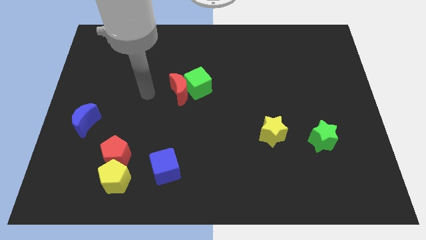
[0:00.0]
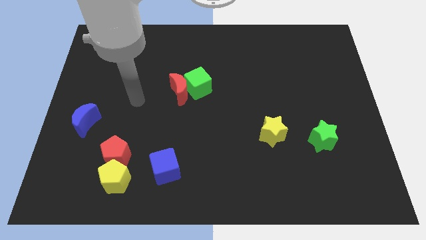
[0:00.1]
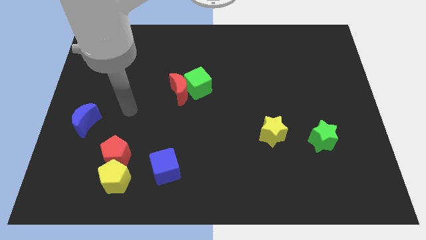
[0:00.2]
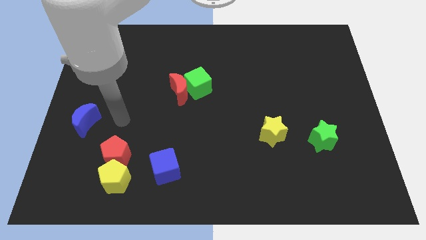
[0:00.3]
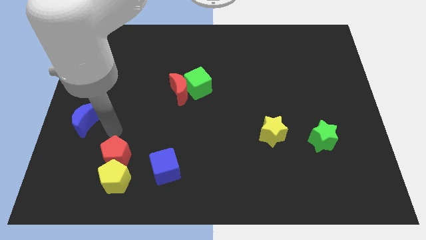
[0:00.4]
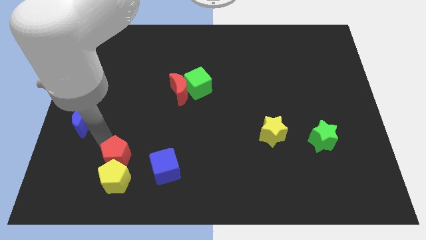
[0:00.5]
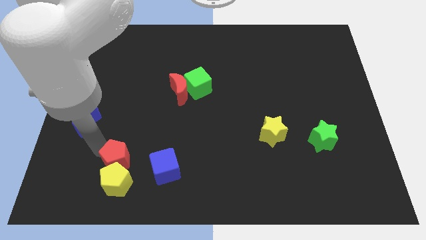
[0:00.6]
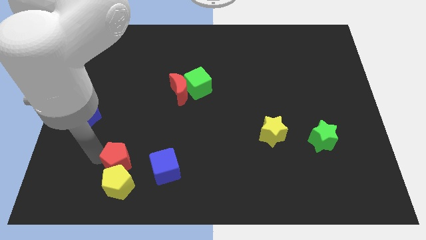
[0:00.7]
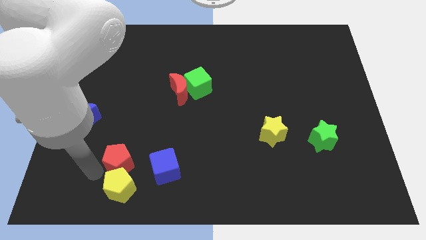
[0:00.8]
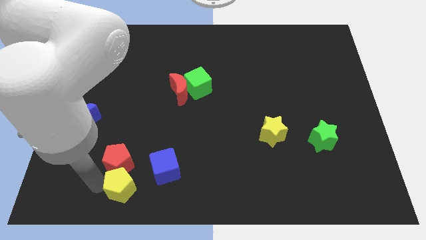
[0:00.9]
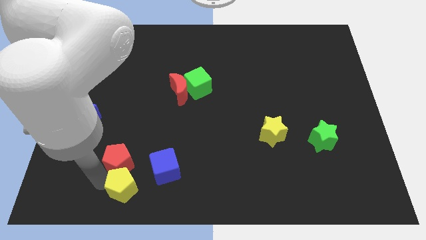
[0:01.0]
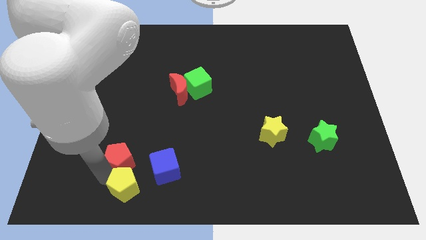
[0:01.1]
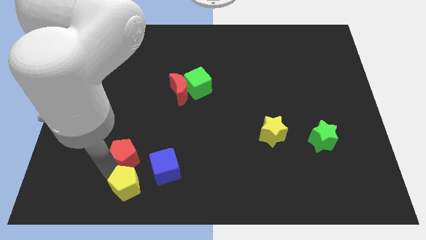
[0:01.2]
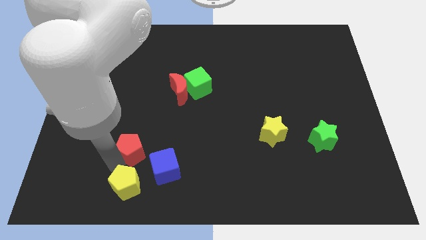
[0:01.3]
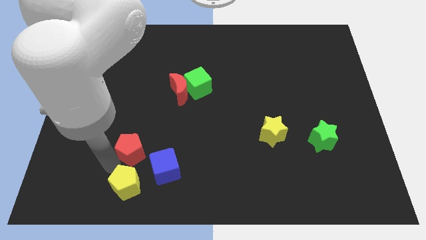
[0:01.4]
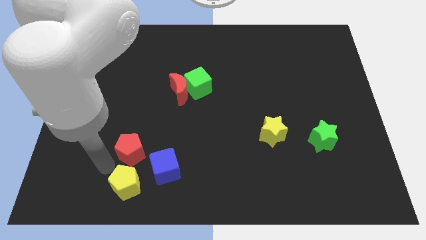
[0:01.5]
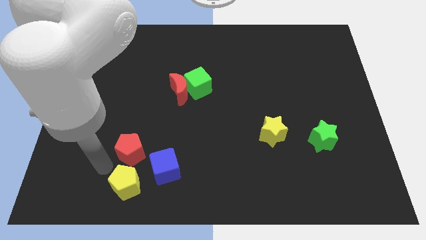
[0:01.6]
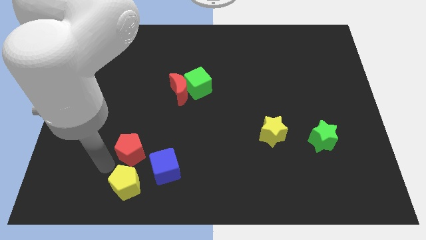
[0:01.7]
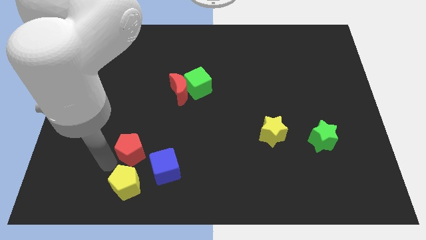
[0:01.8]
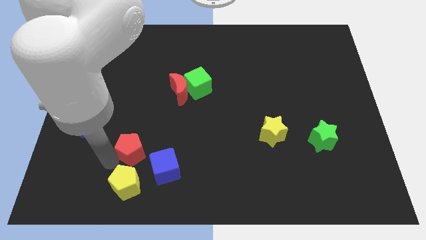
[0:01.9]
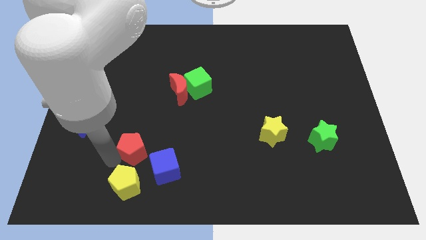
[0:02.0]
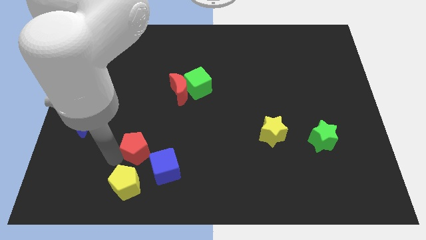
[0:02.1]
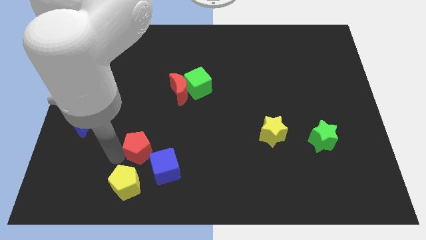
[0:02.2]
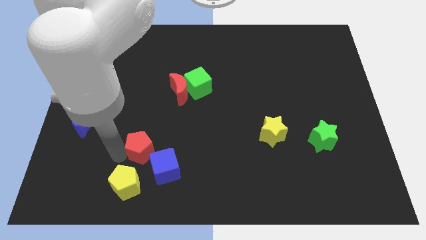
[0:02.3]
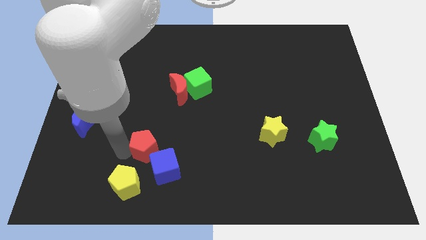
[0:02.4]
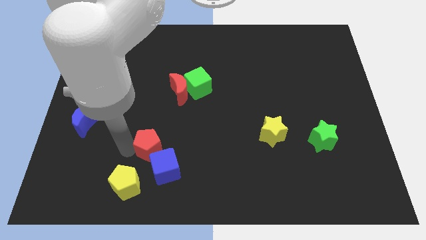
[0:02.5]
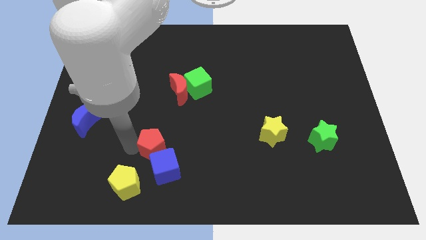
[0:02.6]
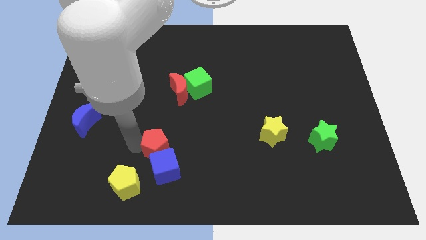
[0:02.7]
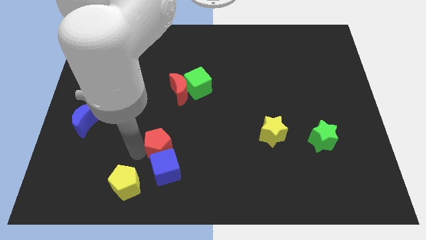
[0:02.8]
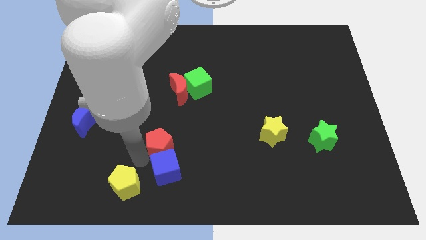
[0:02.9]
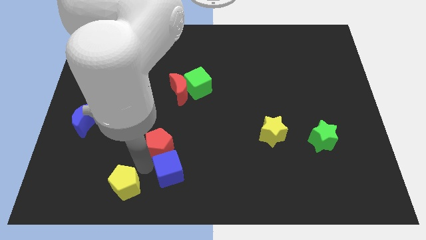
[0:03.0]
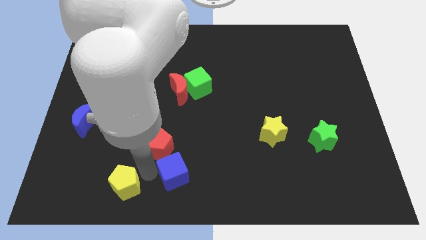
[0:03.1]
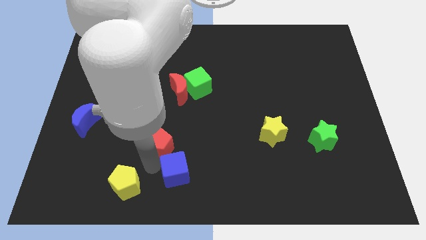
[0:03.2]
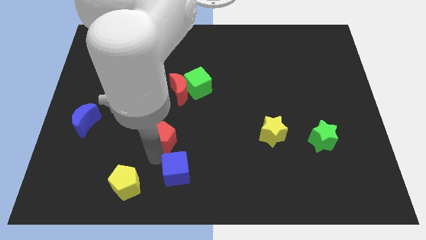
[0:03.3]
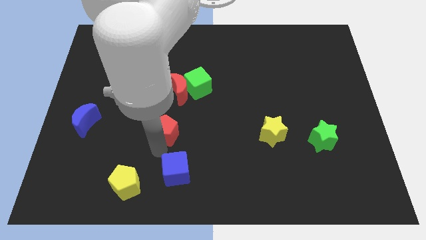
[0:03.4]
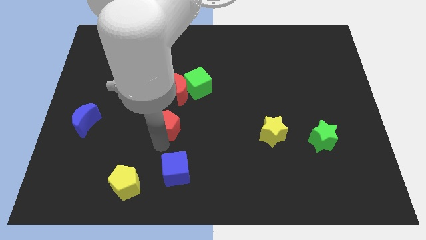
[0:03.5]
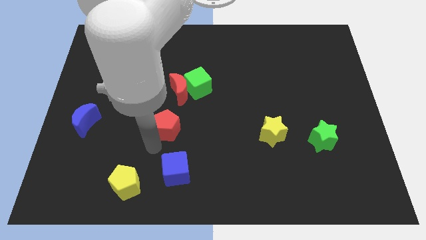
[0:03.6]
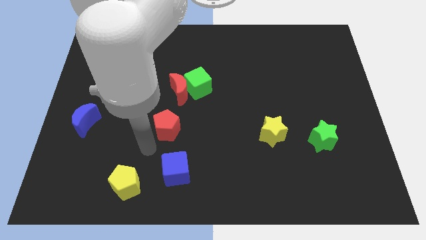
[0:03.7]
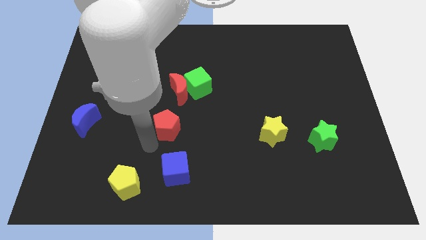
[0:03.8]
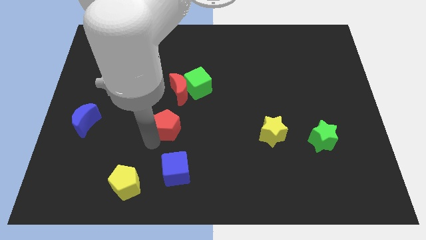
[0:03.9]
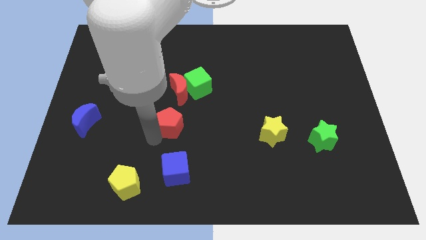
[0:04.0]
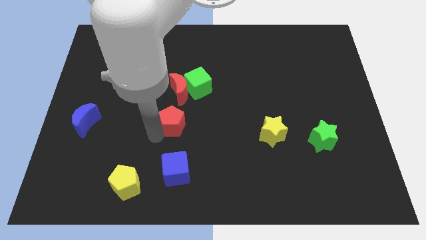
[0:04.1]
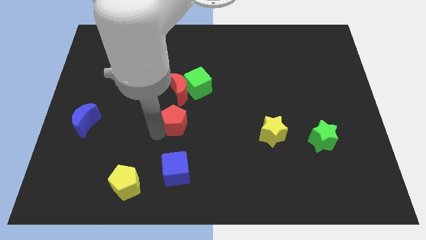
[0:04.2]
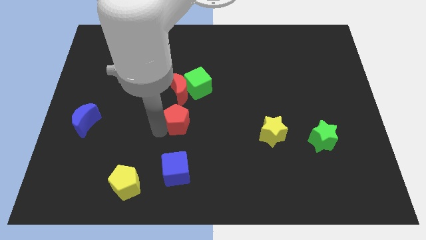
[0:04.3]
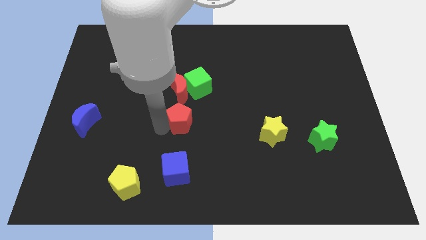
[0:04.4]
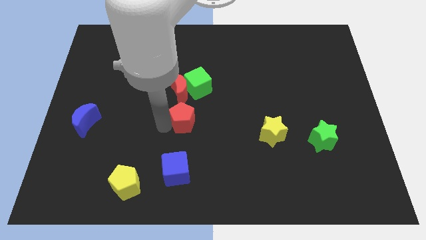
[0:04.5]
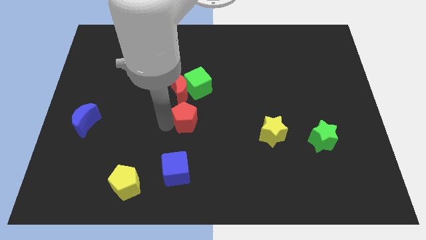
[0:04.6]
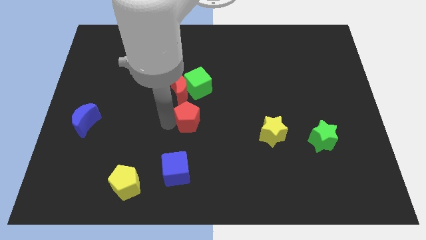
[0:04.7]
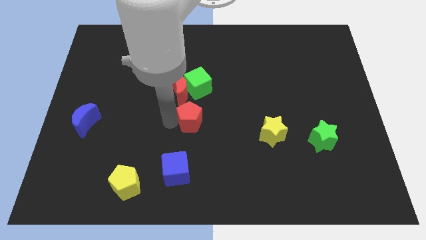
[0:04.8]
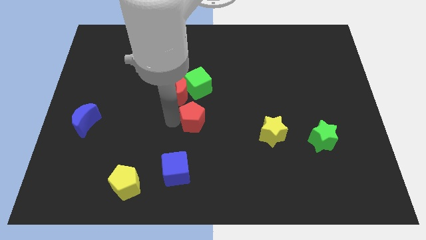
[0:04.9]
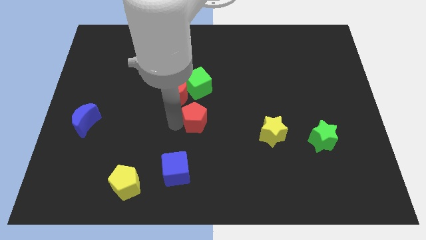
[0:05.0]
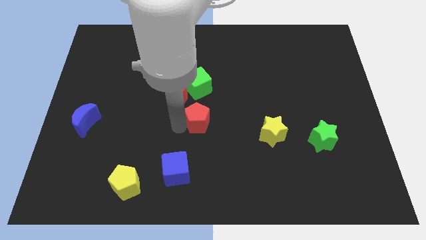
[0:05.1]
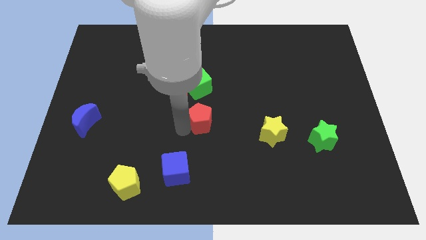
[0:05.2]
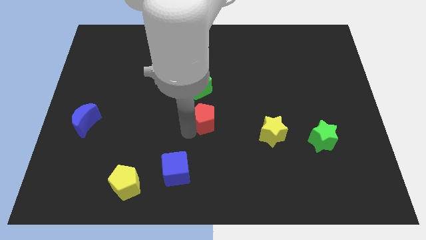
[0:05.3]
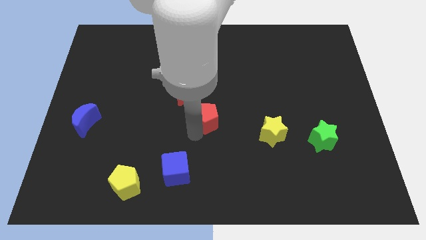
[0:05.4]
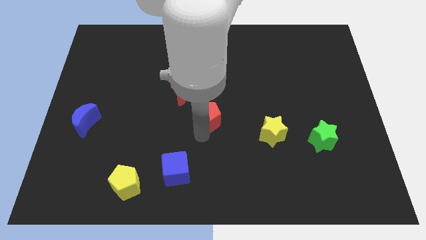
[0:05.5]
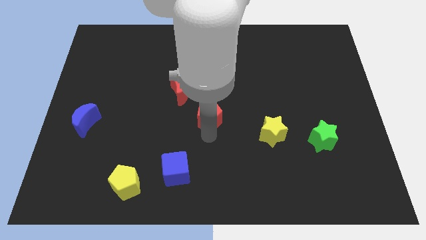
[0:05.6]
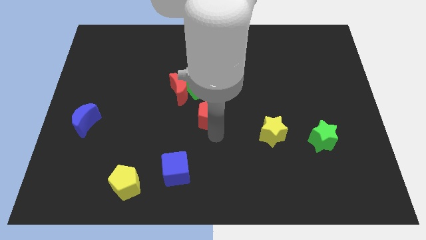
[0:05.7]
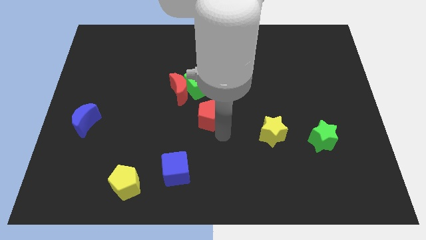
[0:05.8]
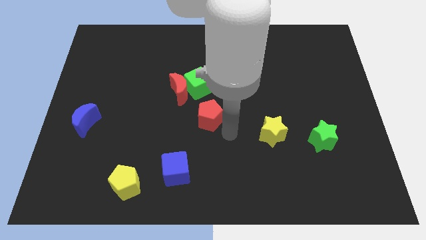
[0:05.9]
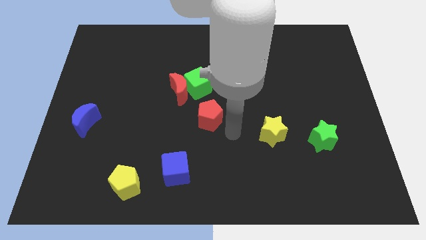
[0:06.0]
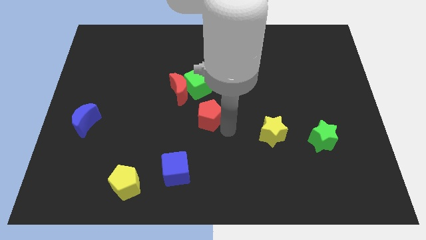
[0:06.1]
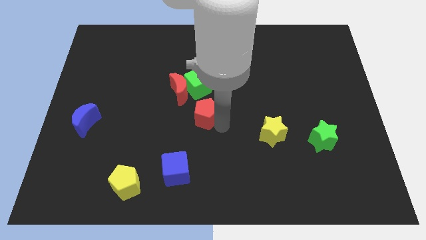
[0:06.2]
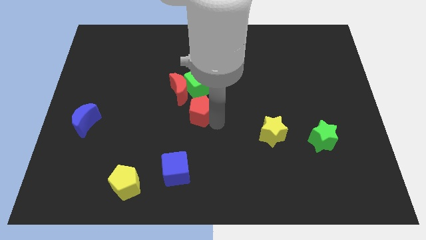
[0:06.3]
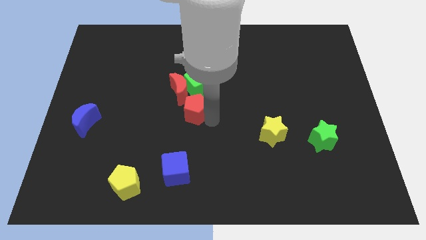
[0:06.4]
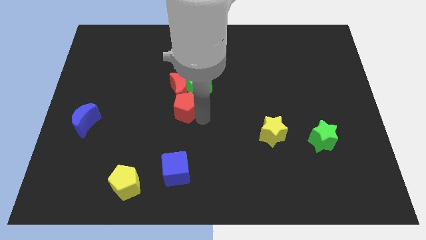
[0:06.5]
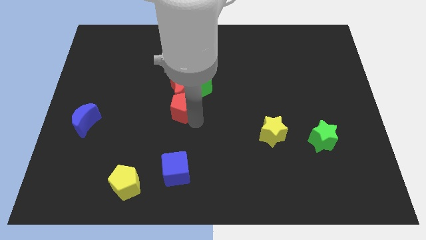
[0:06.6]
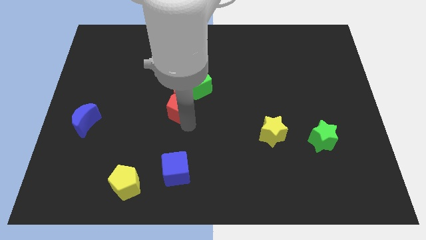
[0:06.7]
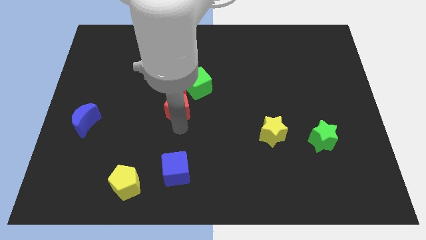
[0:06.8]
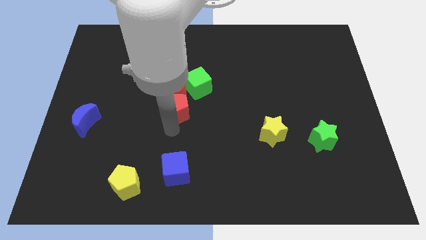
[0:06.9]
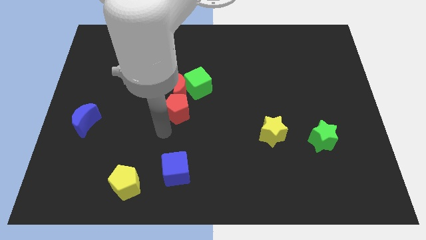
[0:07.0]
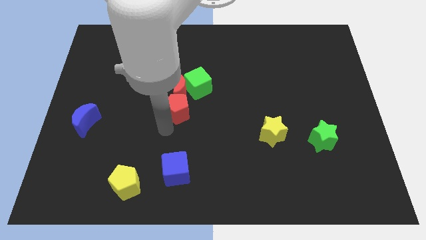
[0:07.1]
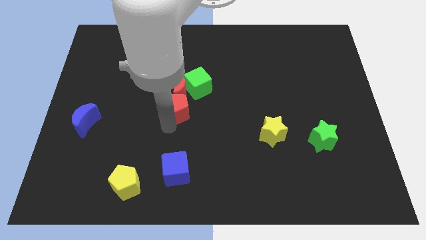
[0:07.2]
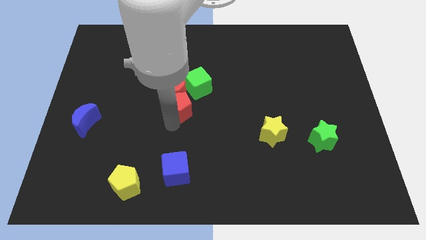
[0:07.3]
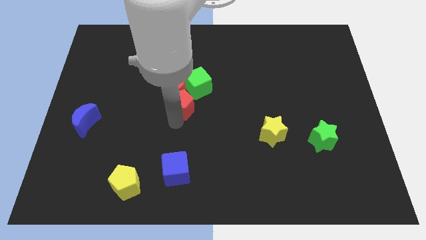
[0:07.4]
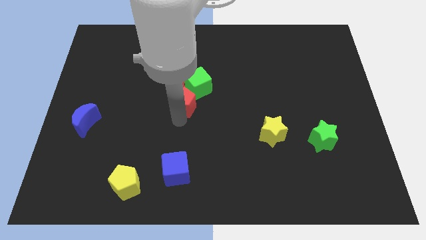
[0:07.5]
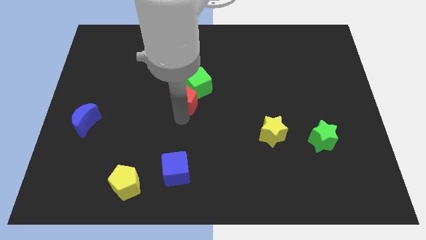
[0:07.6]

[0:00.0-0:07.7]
move the red pentagon close to the green cube

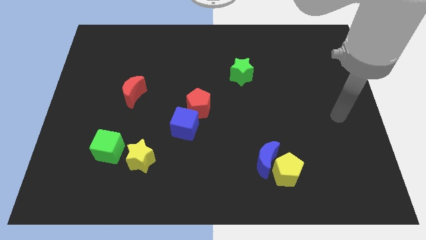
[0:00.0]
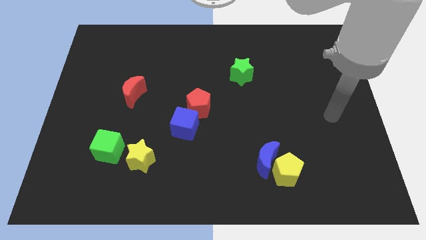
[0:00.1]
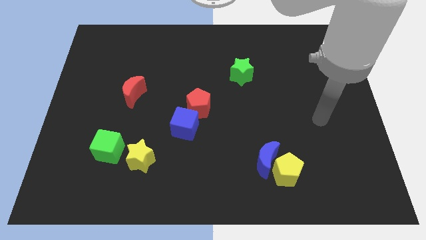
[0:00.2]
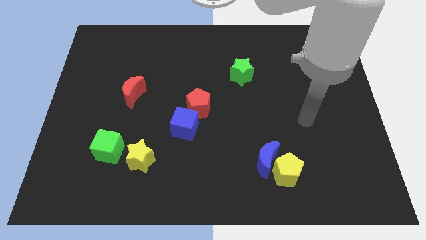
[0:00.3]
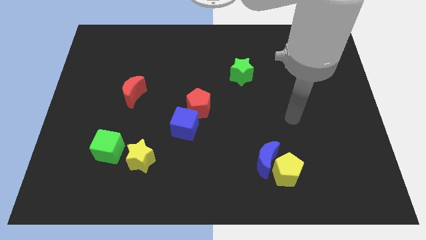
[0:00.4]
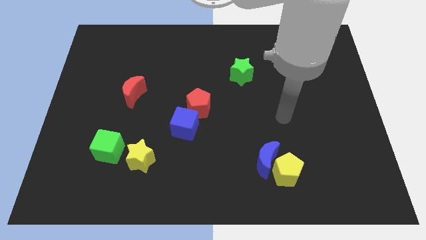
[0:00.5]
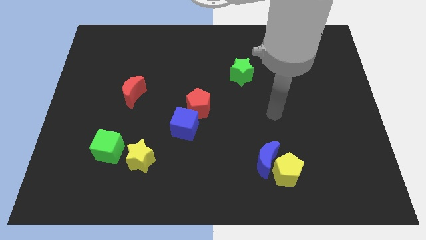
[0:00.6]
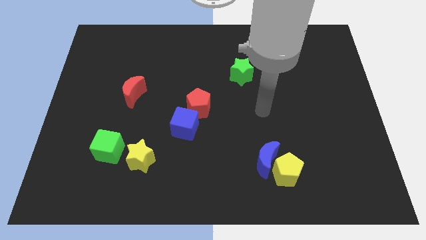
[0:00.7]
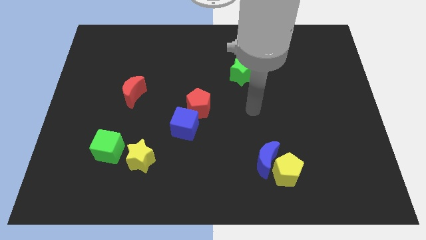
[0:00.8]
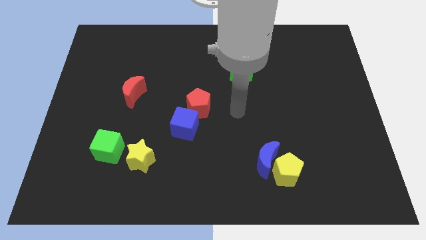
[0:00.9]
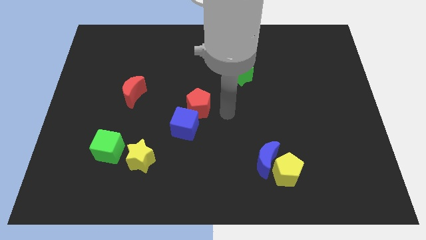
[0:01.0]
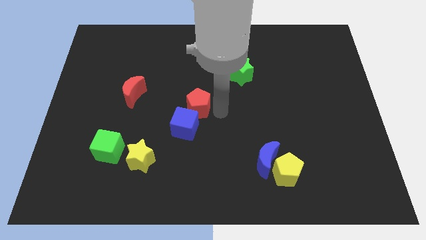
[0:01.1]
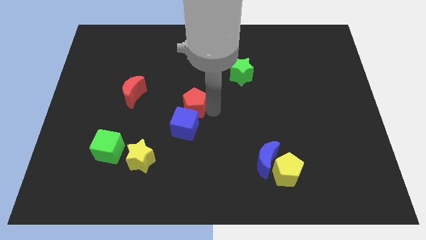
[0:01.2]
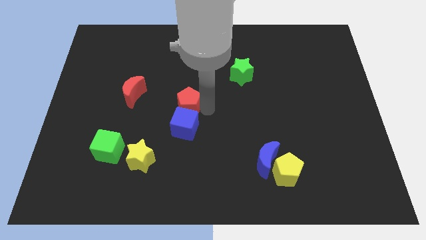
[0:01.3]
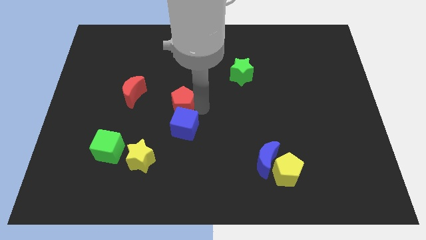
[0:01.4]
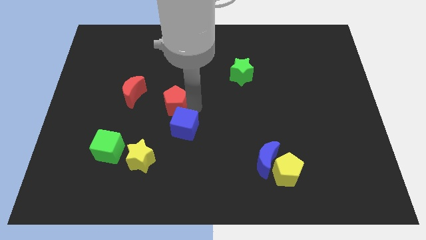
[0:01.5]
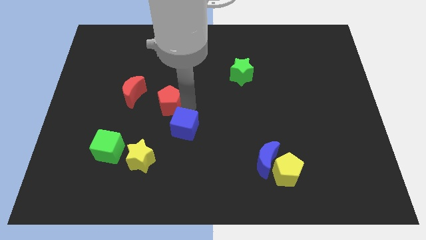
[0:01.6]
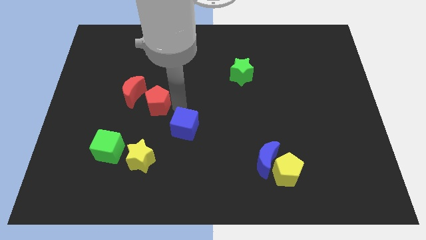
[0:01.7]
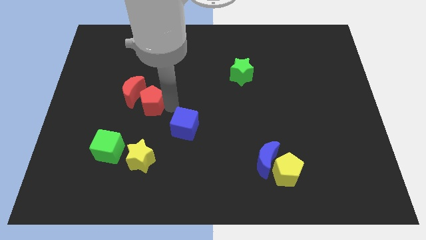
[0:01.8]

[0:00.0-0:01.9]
push the red pentagon next to the red moon
